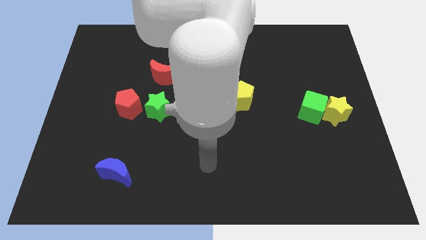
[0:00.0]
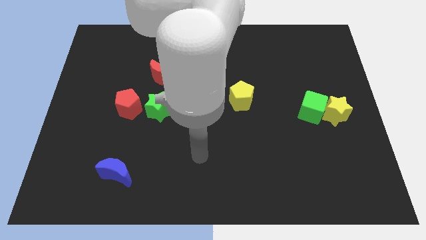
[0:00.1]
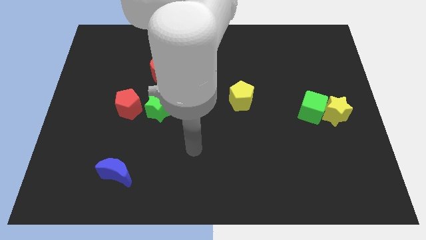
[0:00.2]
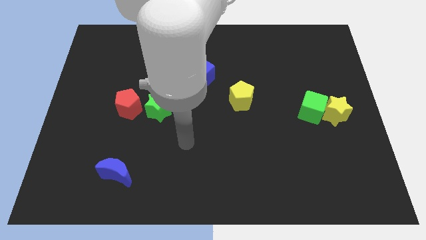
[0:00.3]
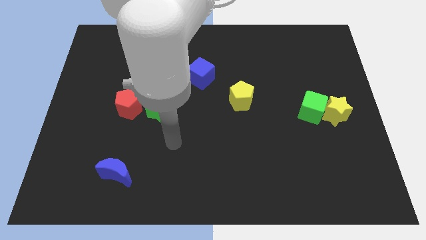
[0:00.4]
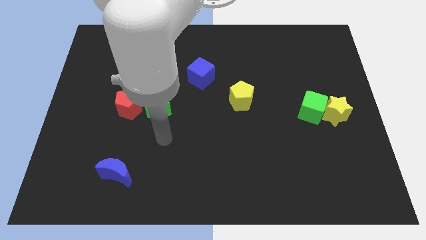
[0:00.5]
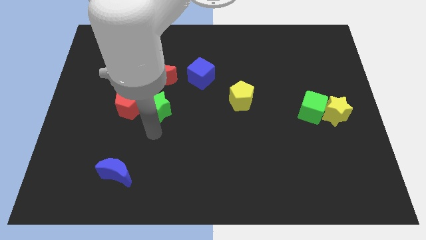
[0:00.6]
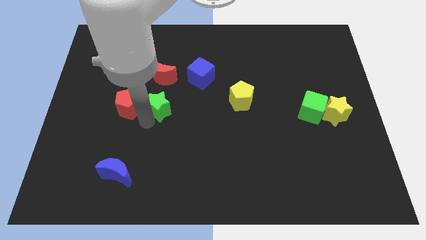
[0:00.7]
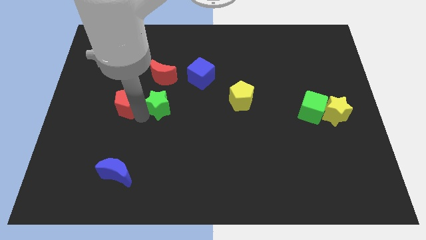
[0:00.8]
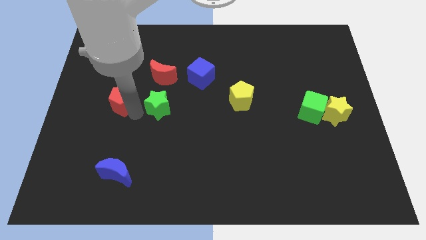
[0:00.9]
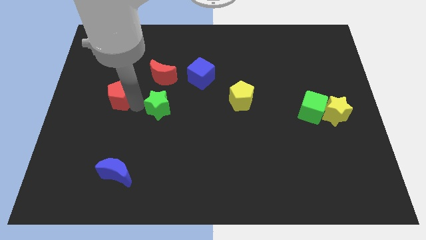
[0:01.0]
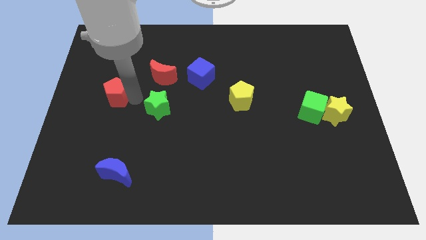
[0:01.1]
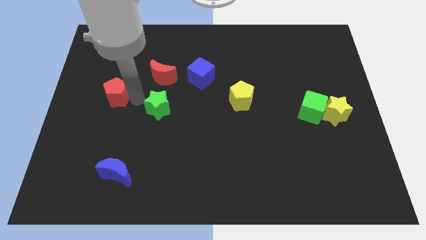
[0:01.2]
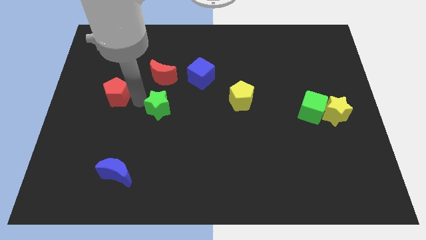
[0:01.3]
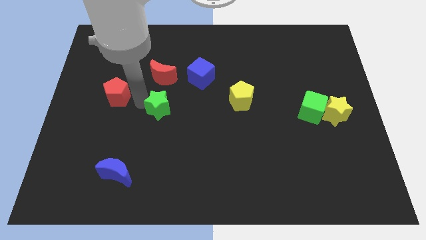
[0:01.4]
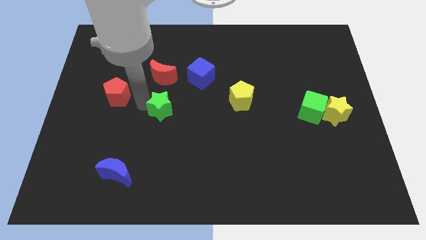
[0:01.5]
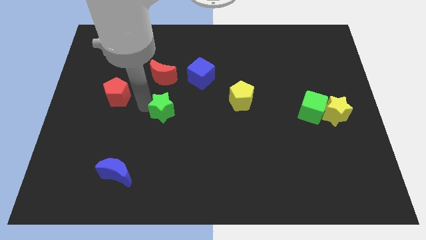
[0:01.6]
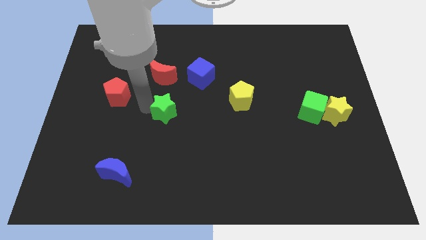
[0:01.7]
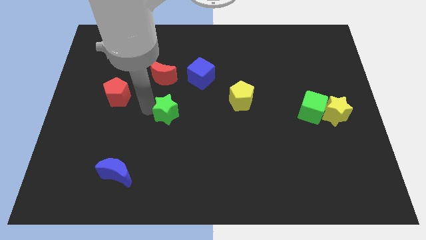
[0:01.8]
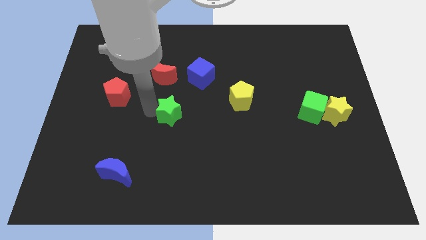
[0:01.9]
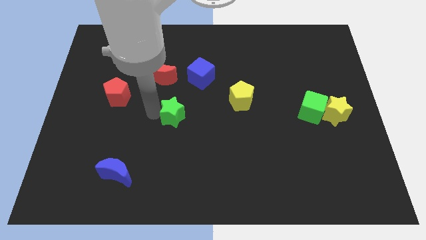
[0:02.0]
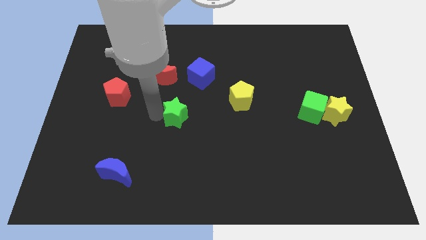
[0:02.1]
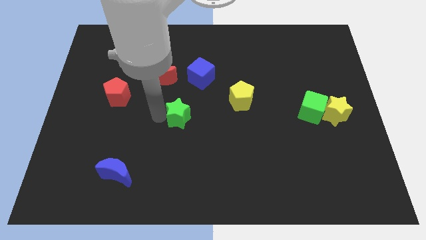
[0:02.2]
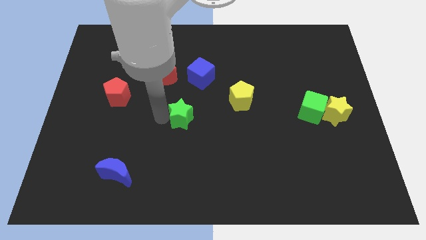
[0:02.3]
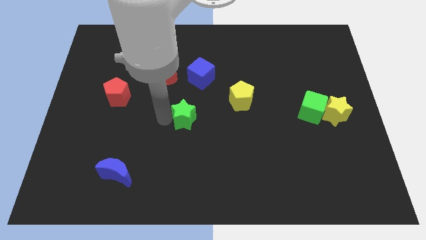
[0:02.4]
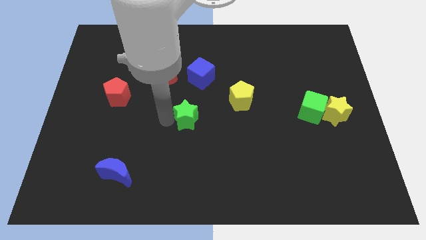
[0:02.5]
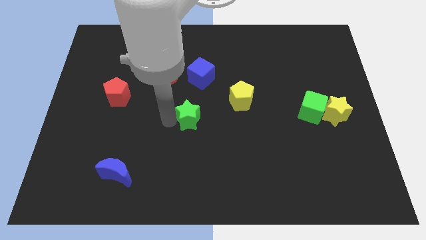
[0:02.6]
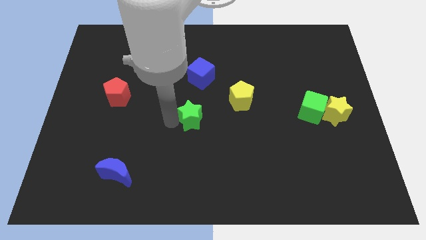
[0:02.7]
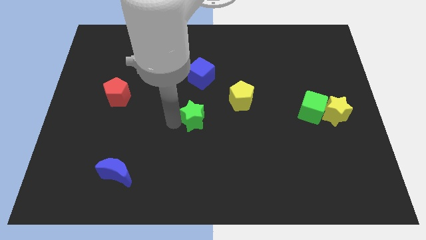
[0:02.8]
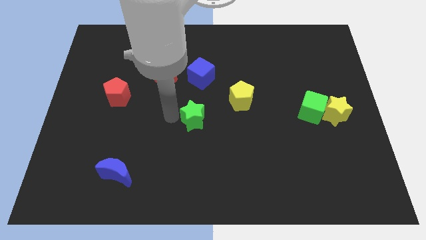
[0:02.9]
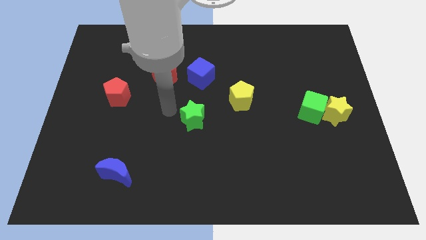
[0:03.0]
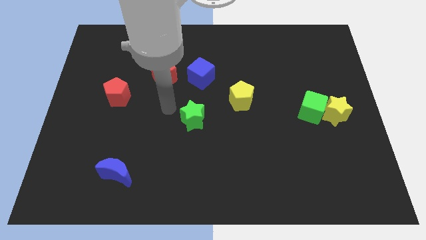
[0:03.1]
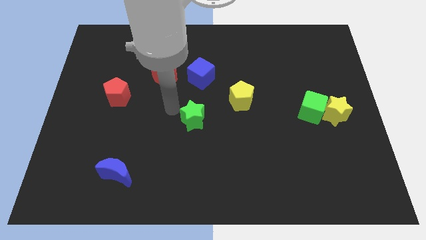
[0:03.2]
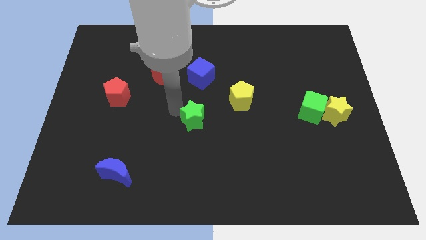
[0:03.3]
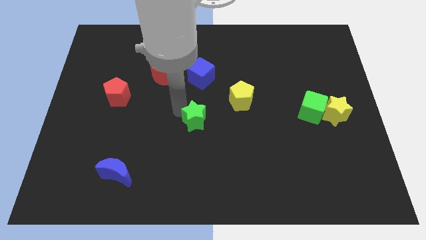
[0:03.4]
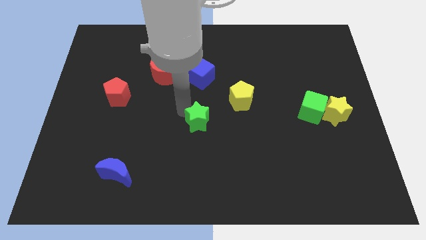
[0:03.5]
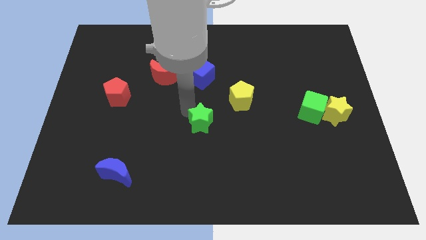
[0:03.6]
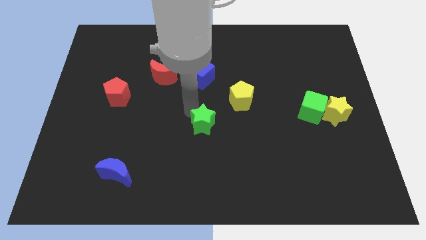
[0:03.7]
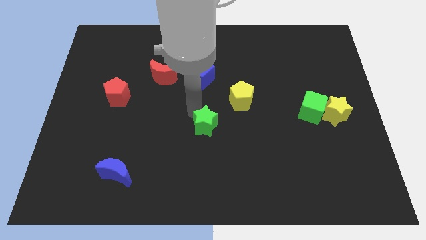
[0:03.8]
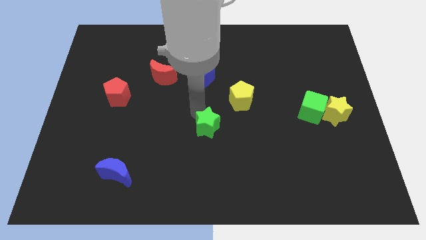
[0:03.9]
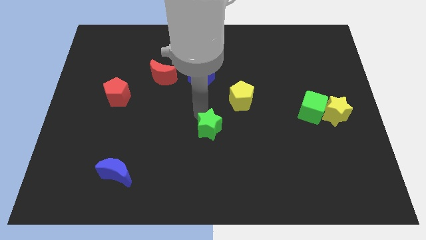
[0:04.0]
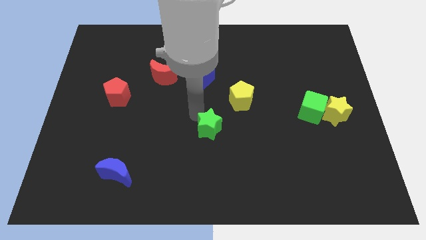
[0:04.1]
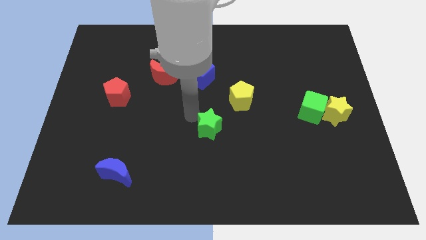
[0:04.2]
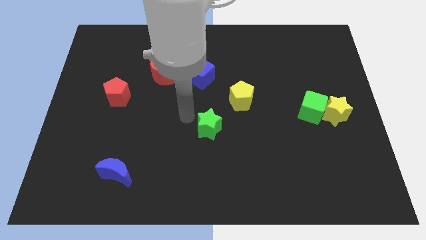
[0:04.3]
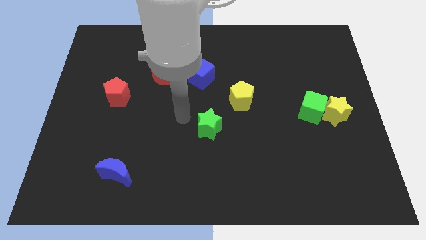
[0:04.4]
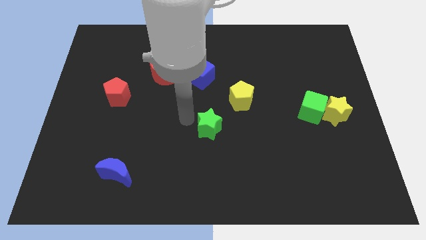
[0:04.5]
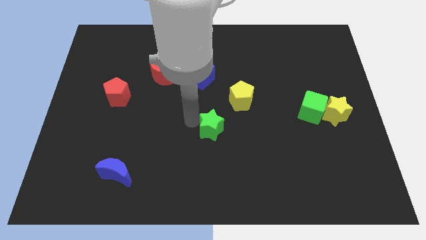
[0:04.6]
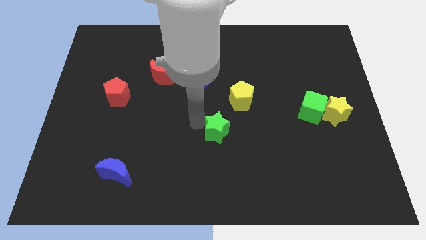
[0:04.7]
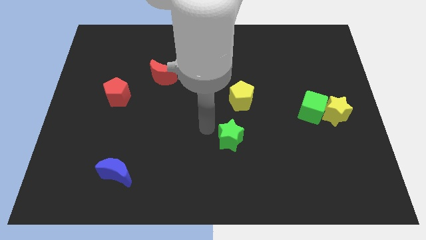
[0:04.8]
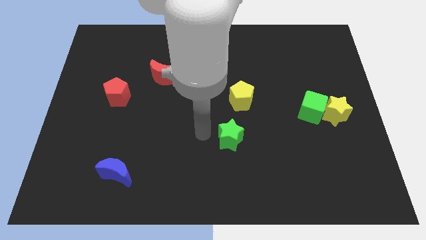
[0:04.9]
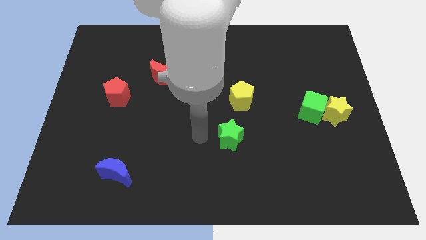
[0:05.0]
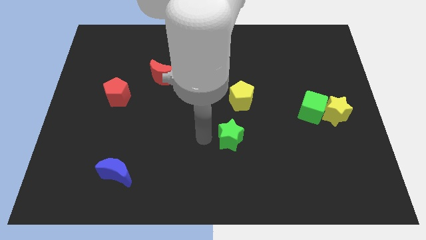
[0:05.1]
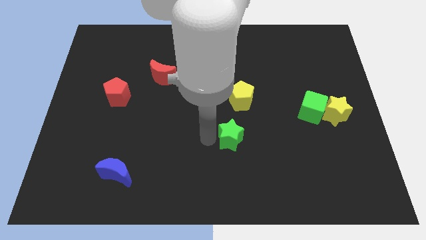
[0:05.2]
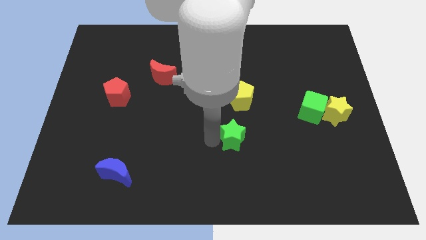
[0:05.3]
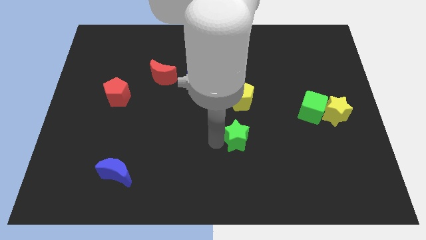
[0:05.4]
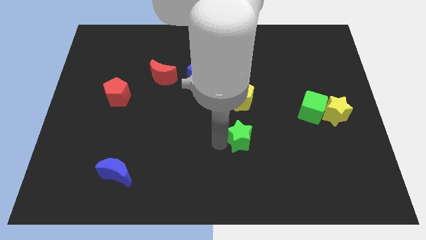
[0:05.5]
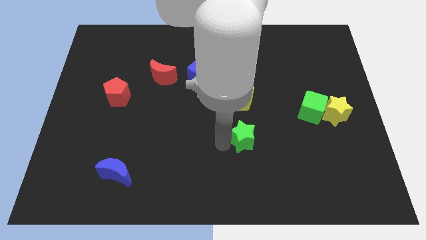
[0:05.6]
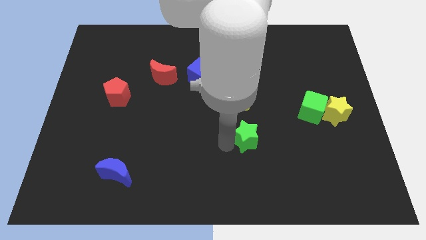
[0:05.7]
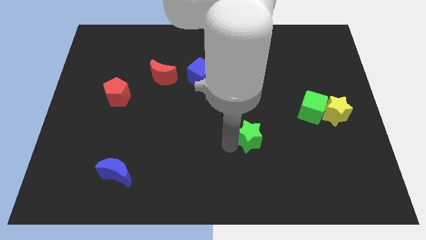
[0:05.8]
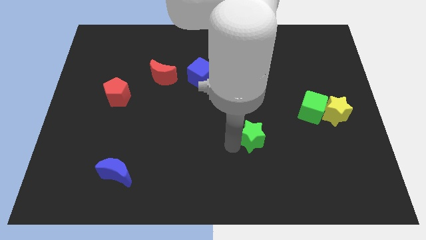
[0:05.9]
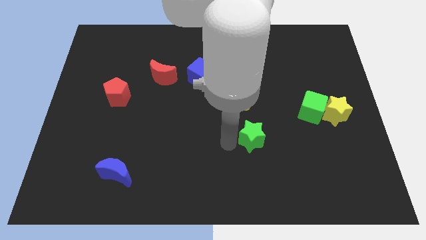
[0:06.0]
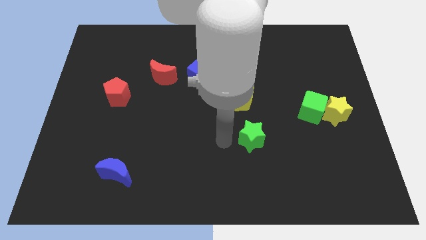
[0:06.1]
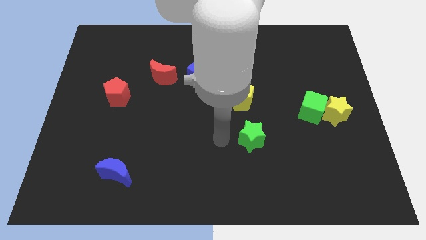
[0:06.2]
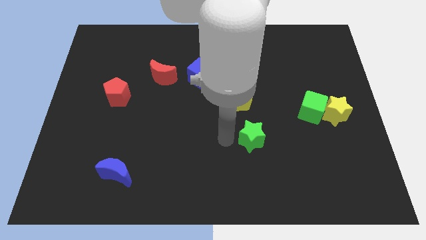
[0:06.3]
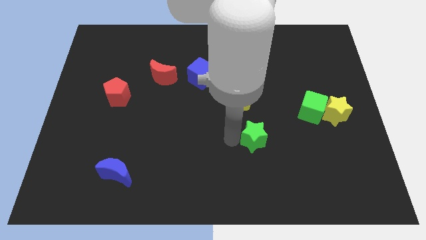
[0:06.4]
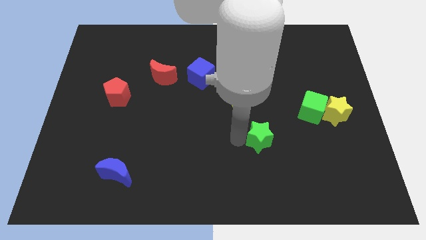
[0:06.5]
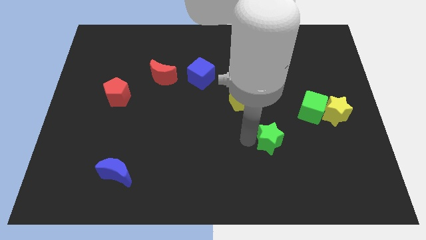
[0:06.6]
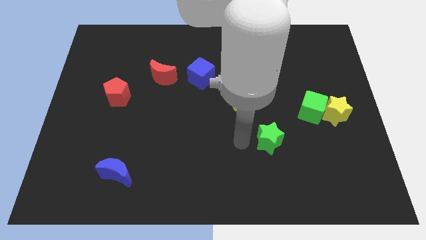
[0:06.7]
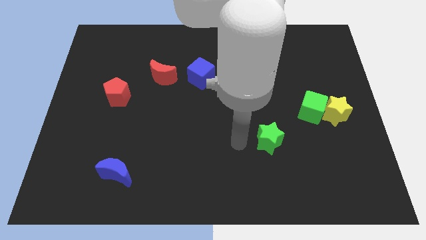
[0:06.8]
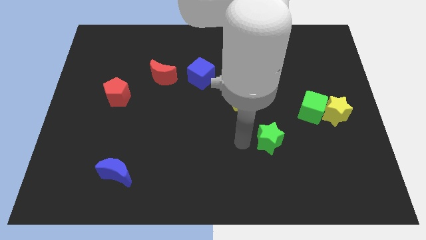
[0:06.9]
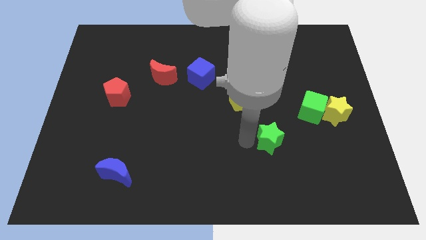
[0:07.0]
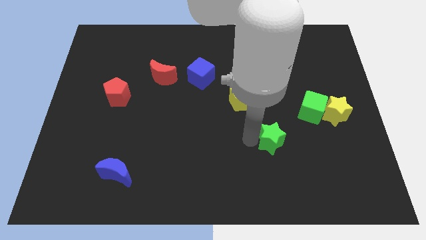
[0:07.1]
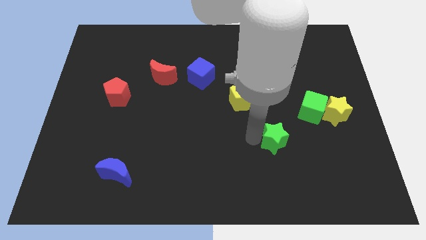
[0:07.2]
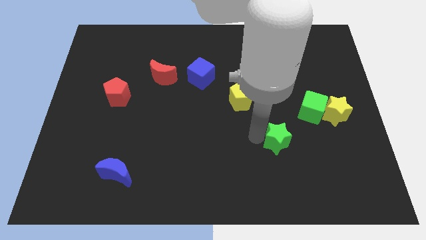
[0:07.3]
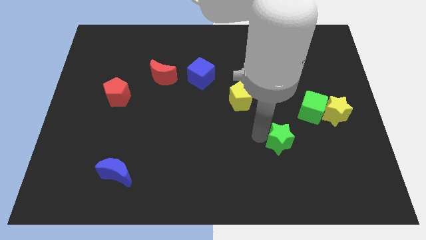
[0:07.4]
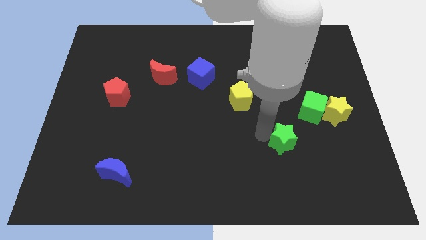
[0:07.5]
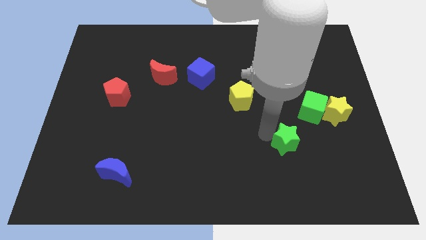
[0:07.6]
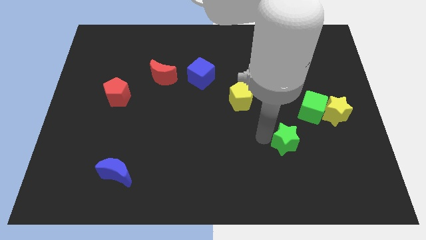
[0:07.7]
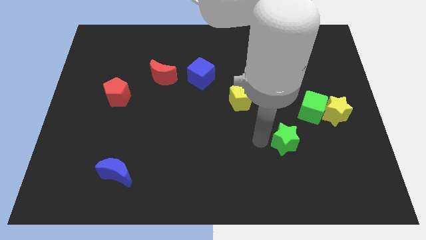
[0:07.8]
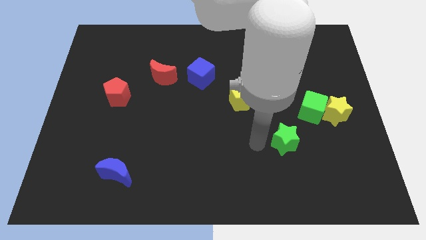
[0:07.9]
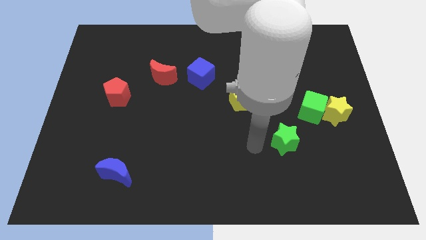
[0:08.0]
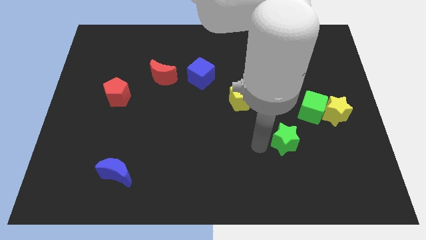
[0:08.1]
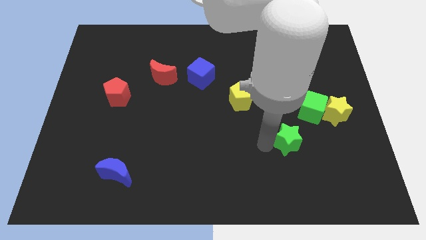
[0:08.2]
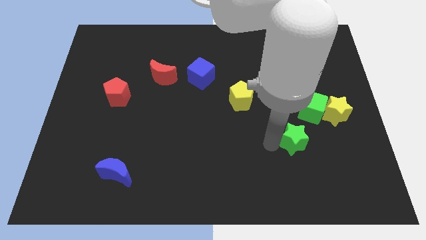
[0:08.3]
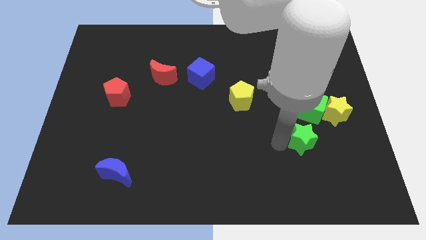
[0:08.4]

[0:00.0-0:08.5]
move the green star to the bottom left side of the yellow star
